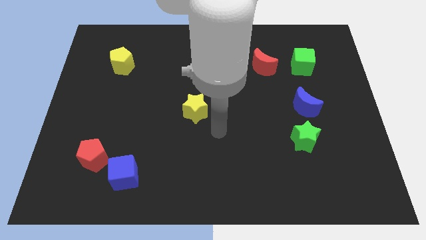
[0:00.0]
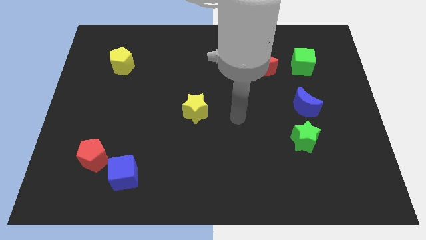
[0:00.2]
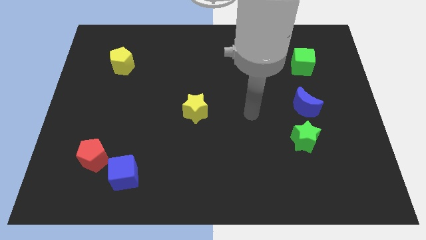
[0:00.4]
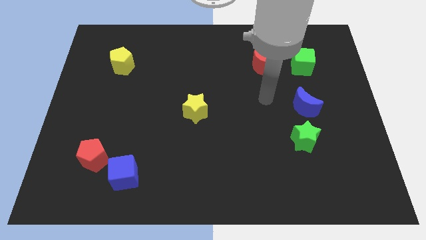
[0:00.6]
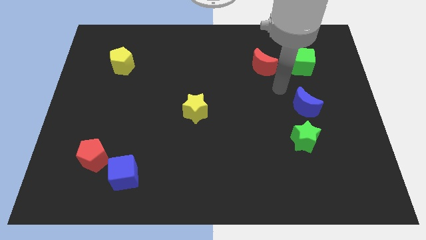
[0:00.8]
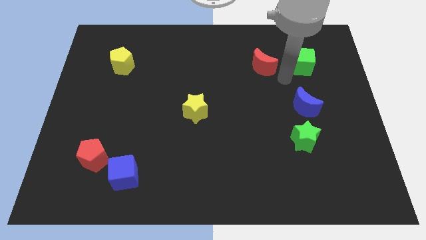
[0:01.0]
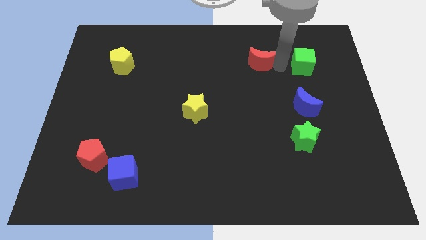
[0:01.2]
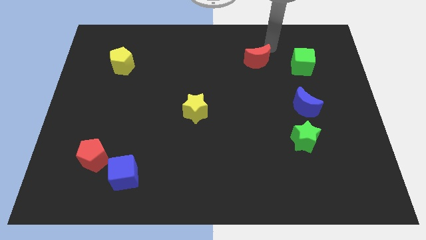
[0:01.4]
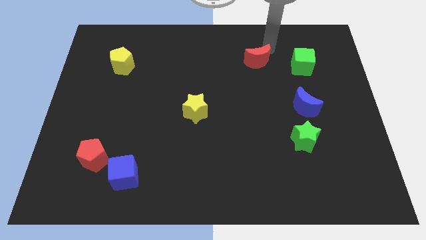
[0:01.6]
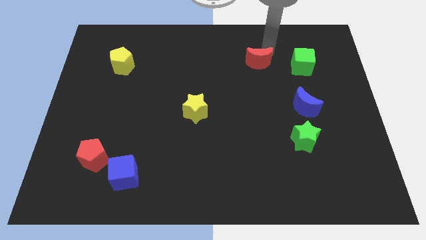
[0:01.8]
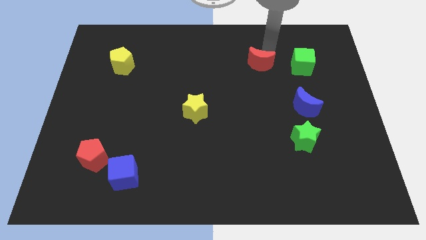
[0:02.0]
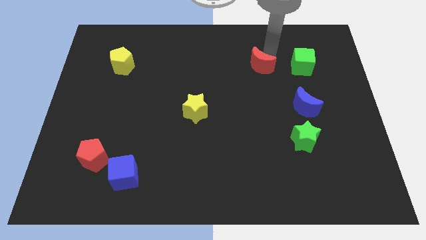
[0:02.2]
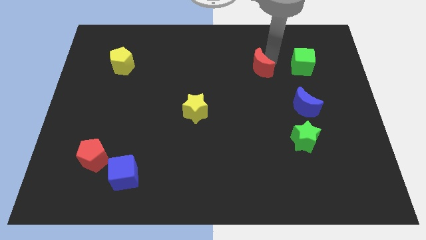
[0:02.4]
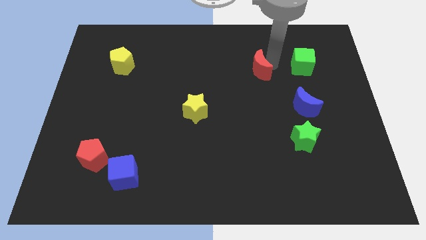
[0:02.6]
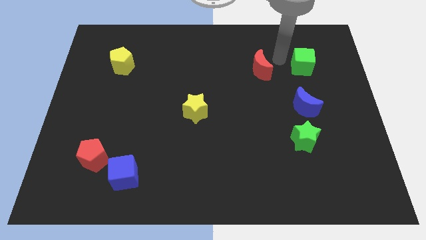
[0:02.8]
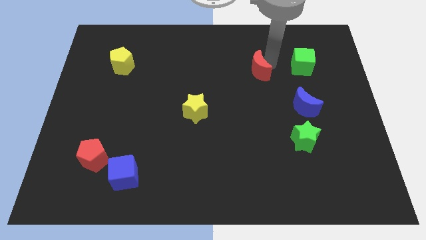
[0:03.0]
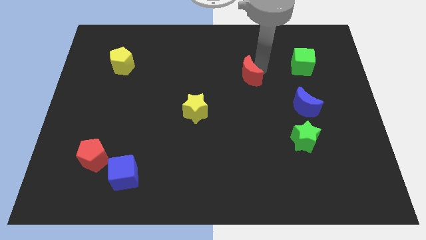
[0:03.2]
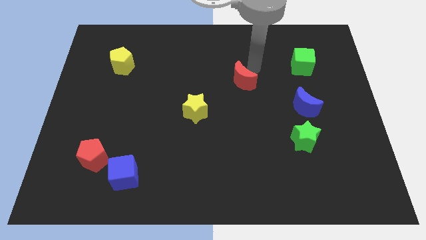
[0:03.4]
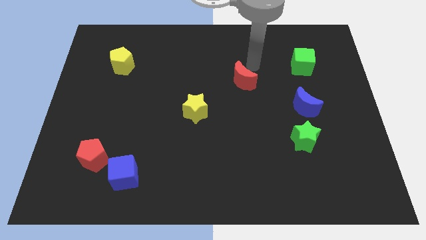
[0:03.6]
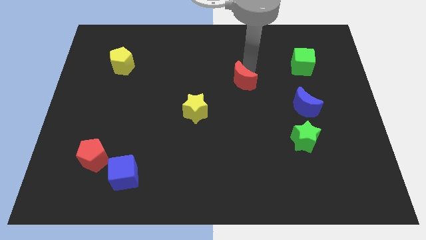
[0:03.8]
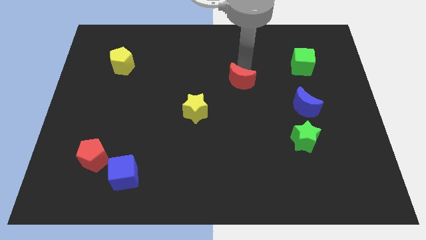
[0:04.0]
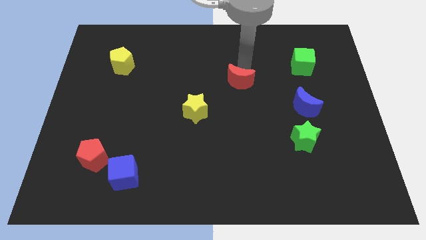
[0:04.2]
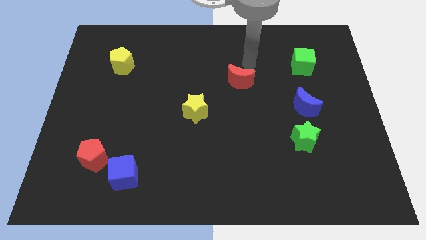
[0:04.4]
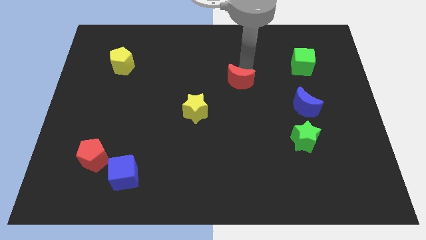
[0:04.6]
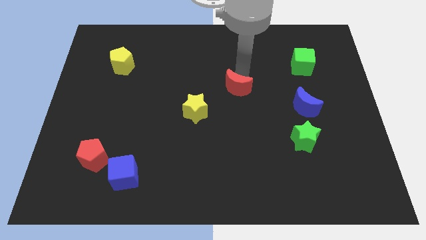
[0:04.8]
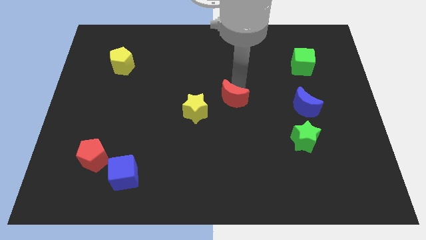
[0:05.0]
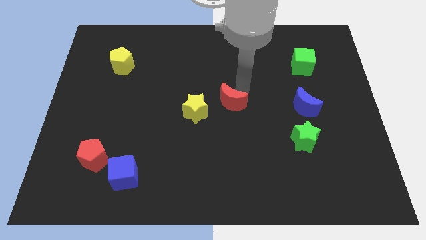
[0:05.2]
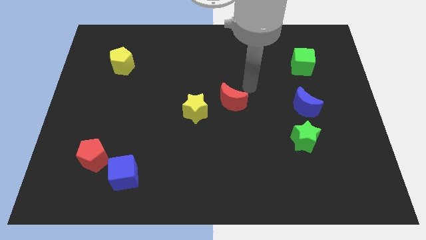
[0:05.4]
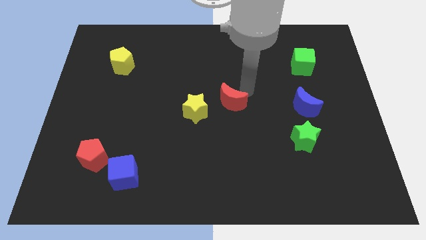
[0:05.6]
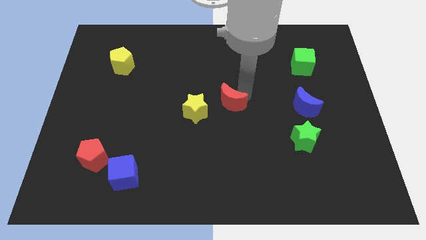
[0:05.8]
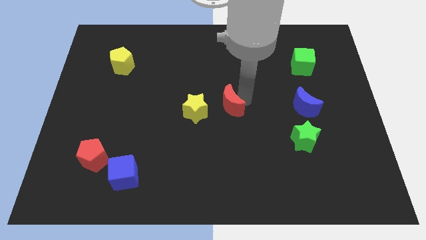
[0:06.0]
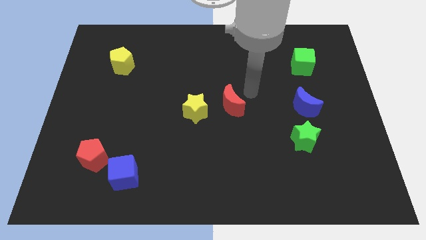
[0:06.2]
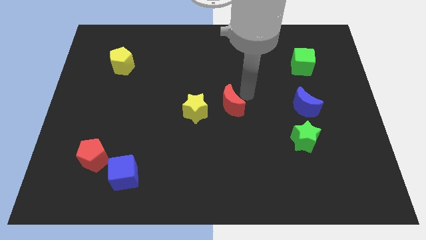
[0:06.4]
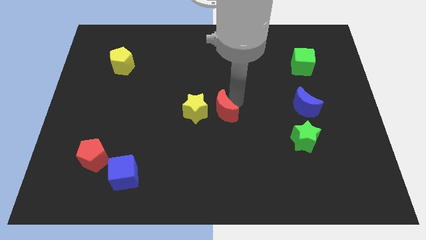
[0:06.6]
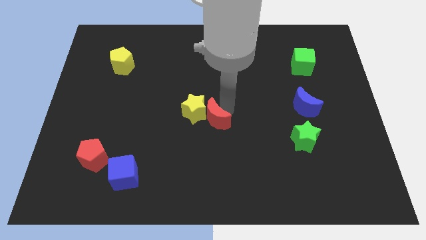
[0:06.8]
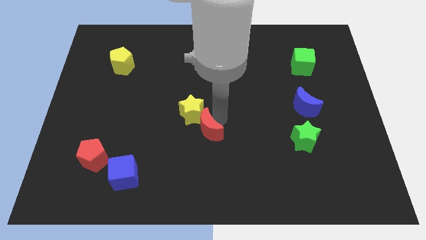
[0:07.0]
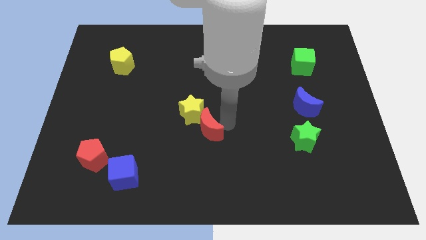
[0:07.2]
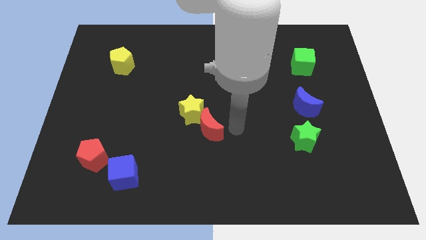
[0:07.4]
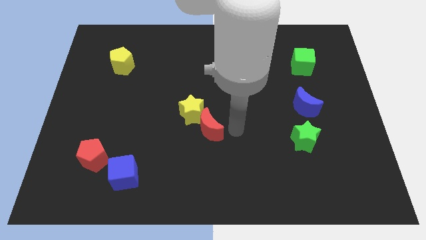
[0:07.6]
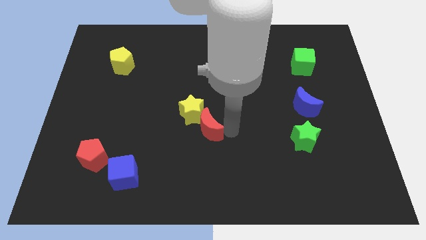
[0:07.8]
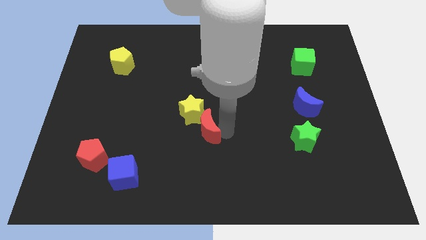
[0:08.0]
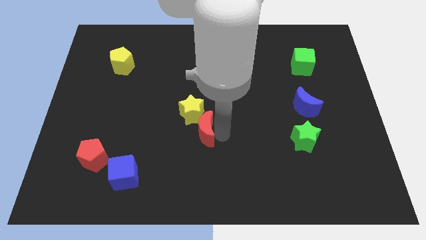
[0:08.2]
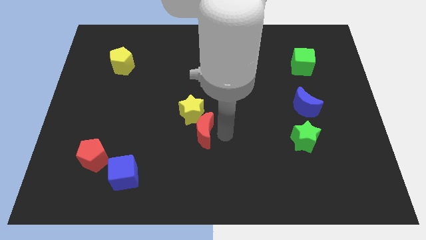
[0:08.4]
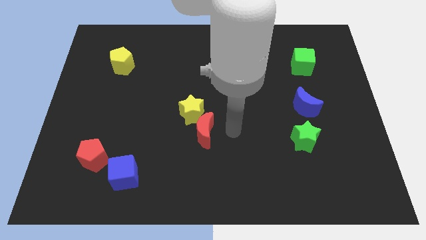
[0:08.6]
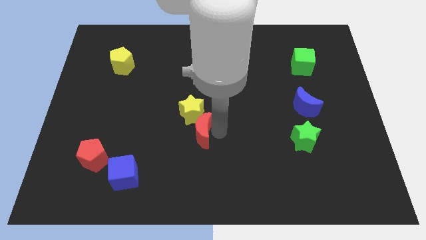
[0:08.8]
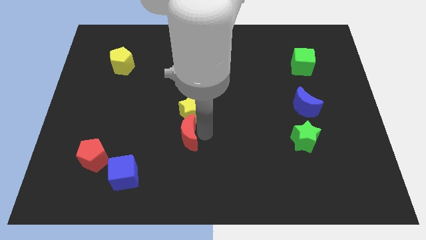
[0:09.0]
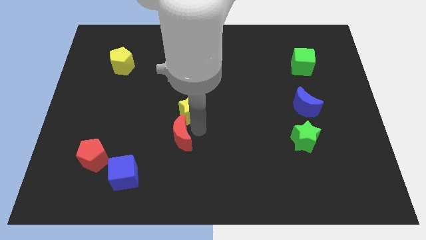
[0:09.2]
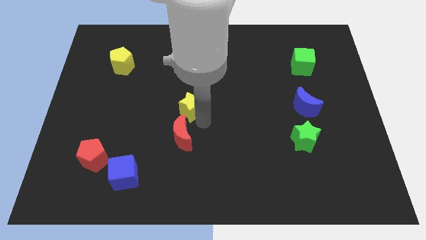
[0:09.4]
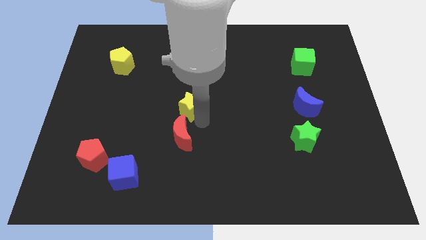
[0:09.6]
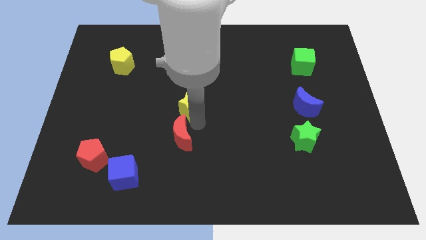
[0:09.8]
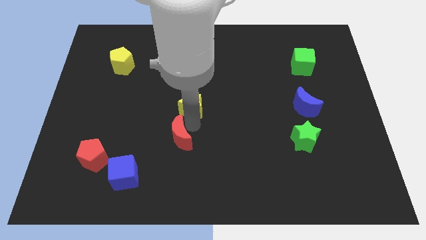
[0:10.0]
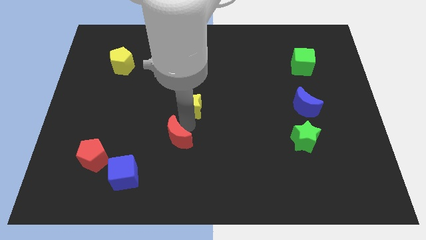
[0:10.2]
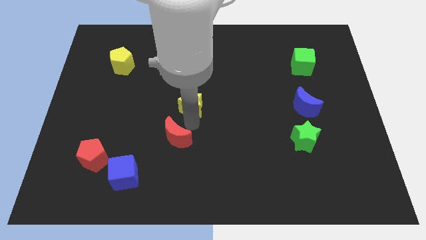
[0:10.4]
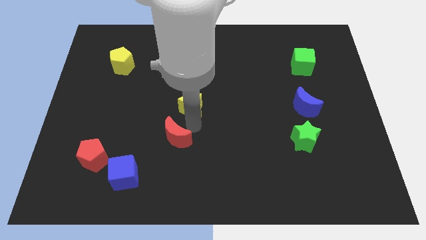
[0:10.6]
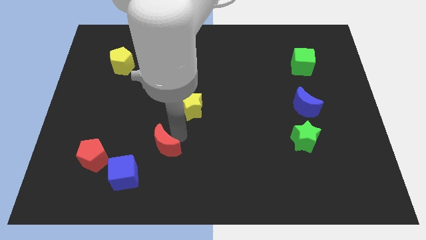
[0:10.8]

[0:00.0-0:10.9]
slide the red moon right of the red pentagon

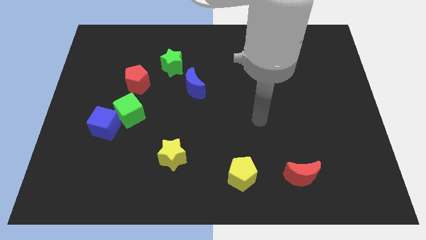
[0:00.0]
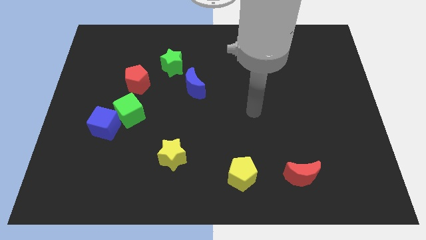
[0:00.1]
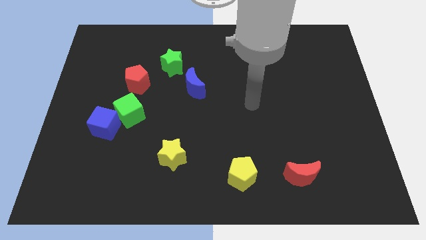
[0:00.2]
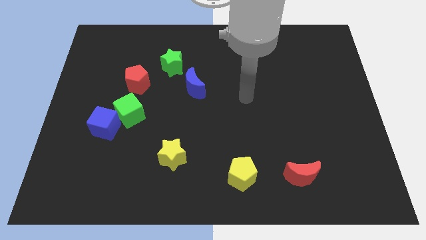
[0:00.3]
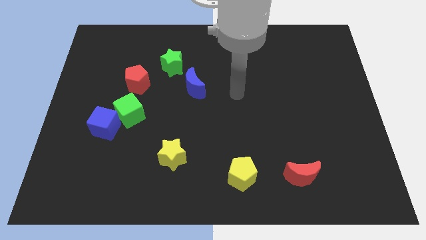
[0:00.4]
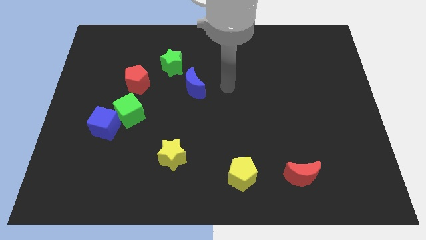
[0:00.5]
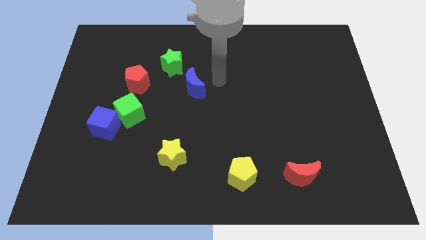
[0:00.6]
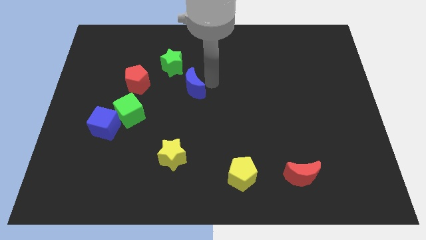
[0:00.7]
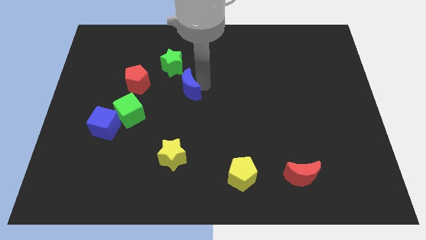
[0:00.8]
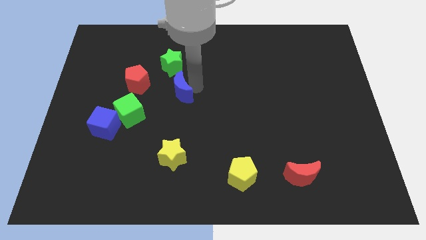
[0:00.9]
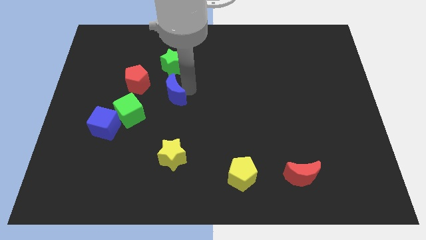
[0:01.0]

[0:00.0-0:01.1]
slide the blue moon to the bottom right of the red pentagon
